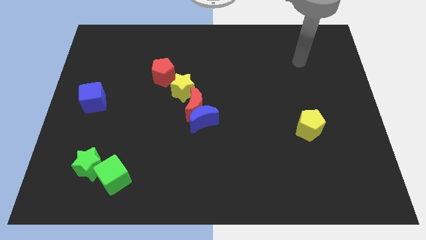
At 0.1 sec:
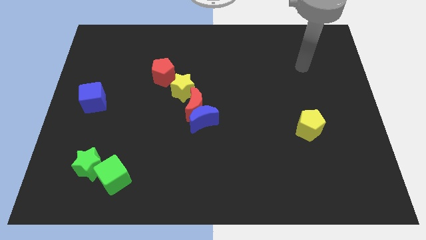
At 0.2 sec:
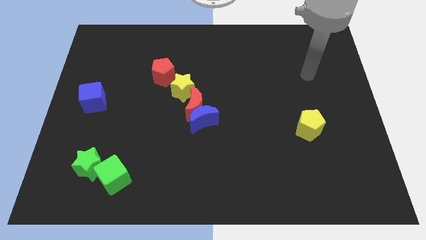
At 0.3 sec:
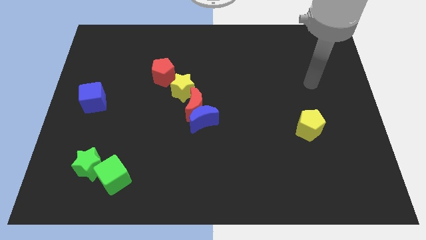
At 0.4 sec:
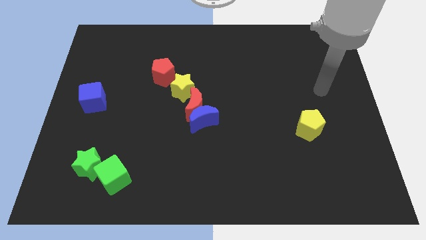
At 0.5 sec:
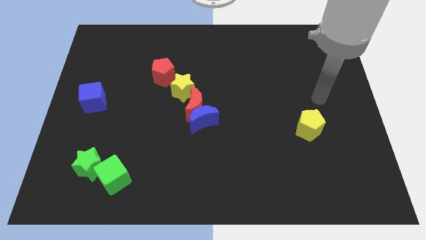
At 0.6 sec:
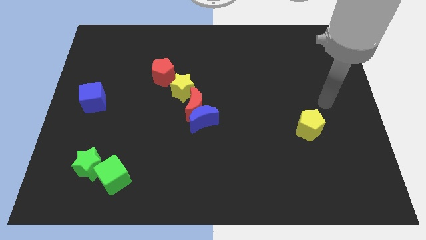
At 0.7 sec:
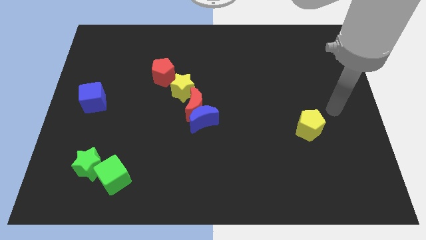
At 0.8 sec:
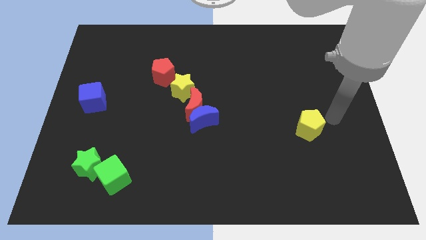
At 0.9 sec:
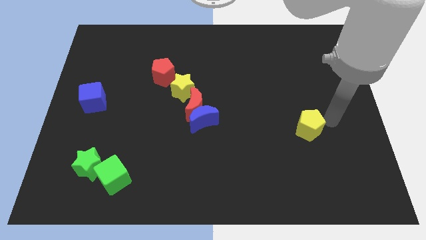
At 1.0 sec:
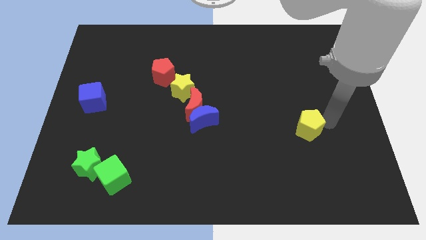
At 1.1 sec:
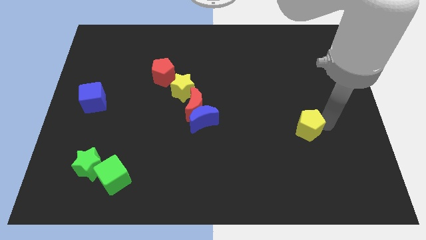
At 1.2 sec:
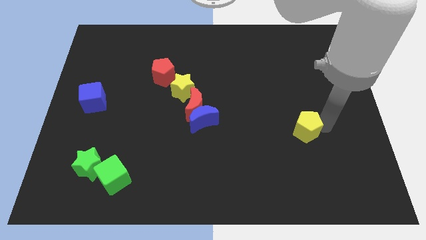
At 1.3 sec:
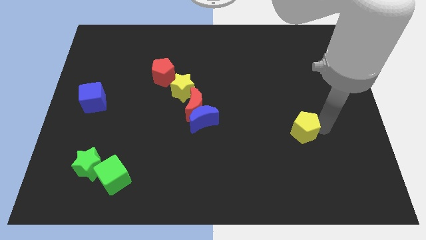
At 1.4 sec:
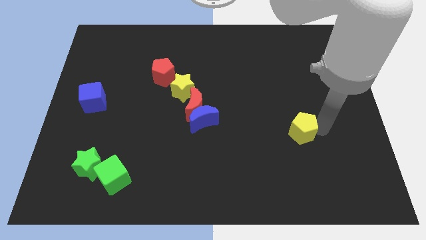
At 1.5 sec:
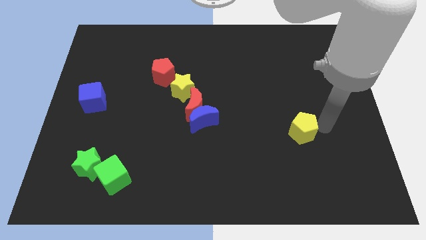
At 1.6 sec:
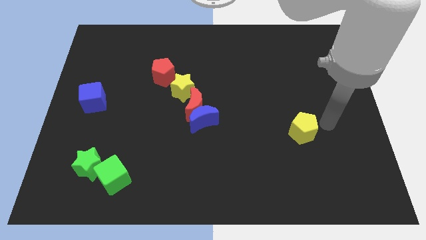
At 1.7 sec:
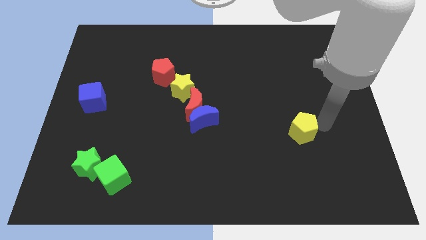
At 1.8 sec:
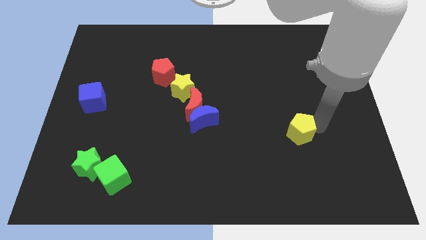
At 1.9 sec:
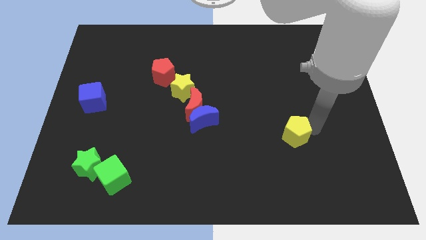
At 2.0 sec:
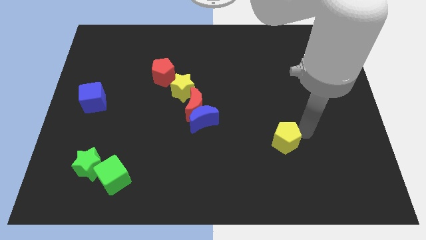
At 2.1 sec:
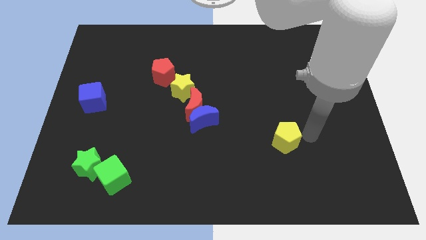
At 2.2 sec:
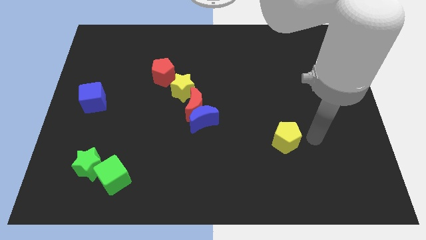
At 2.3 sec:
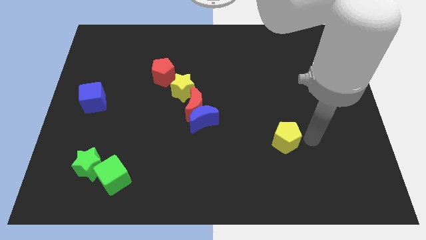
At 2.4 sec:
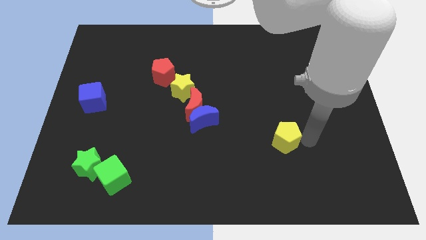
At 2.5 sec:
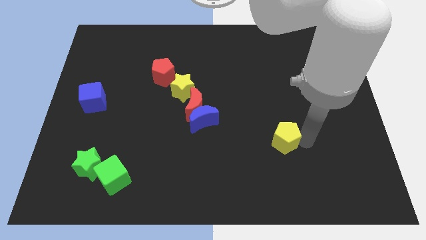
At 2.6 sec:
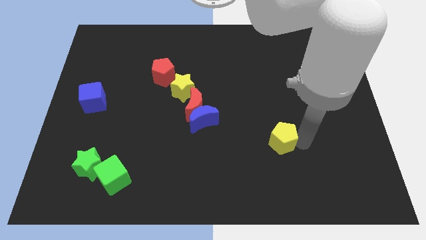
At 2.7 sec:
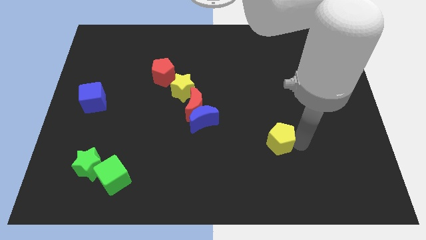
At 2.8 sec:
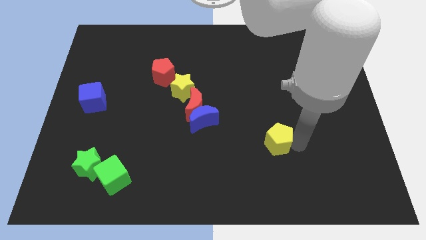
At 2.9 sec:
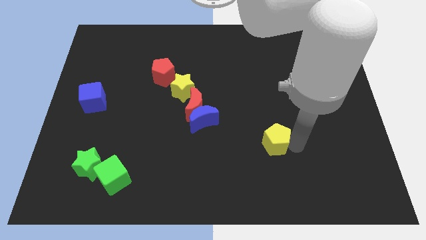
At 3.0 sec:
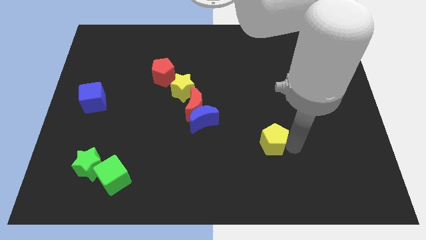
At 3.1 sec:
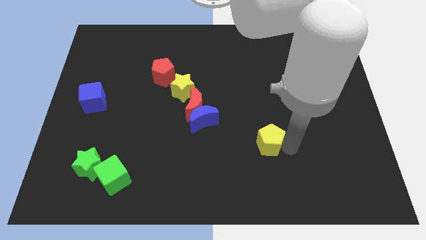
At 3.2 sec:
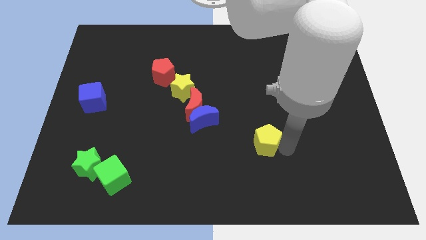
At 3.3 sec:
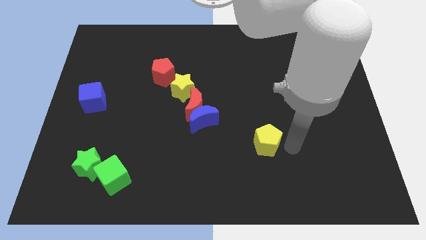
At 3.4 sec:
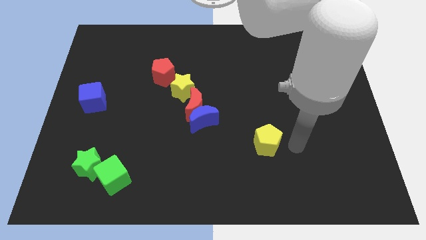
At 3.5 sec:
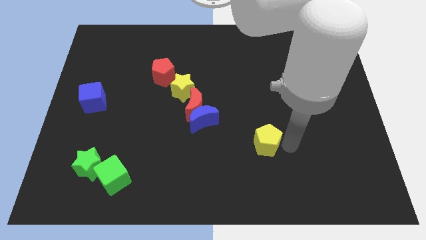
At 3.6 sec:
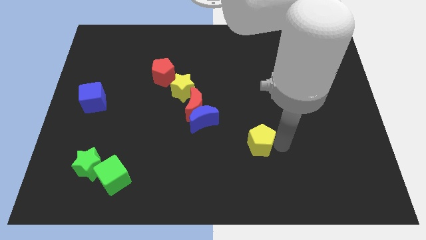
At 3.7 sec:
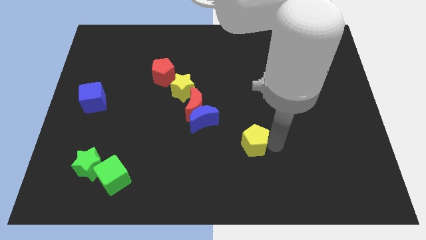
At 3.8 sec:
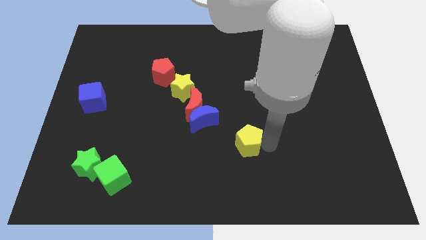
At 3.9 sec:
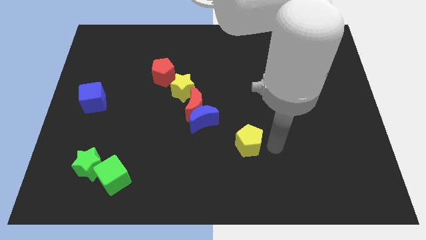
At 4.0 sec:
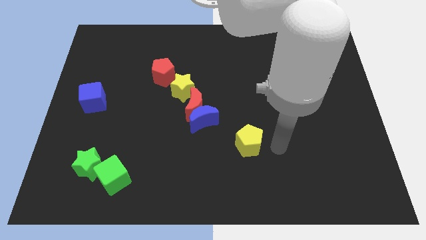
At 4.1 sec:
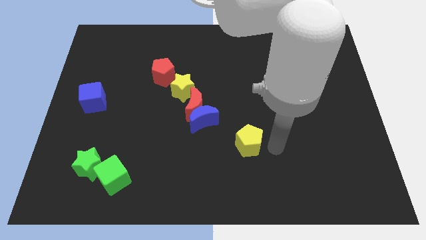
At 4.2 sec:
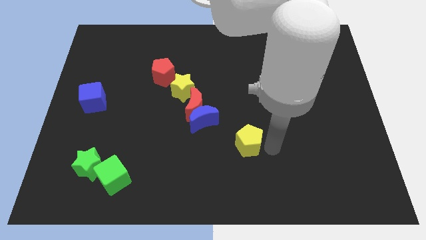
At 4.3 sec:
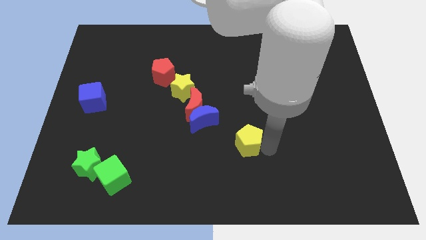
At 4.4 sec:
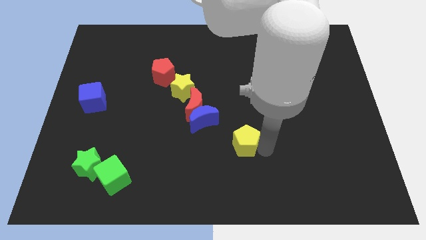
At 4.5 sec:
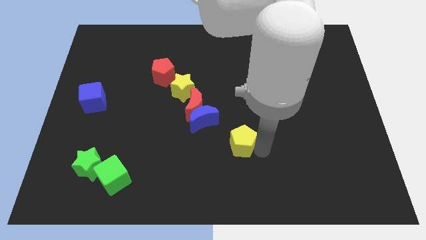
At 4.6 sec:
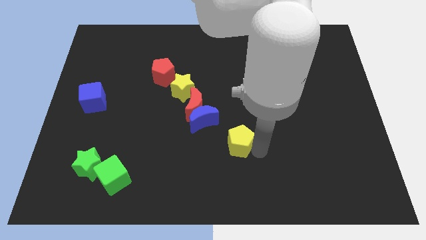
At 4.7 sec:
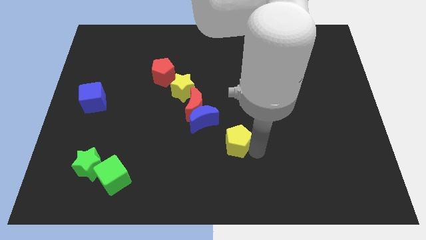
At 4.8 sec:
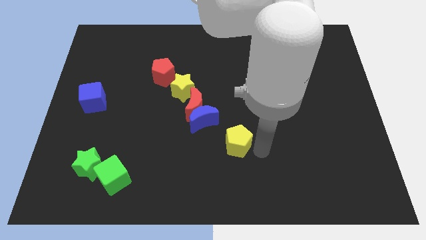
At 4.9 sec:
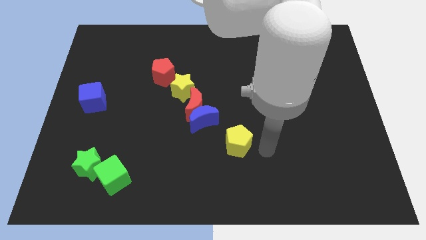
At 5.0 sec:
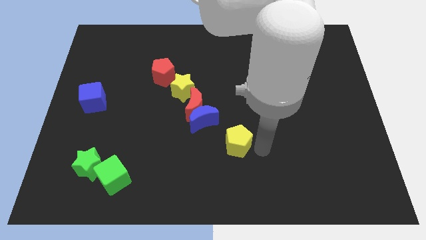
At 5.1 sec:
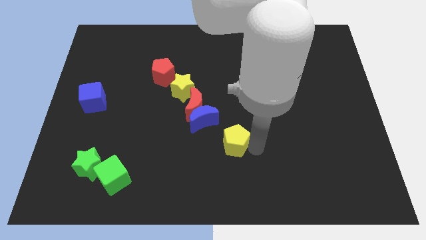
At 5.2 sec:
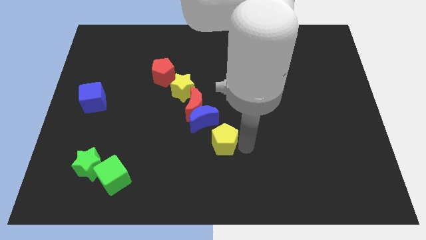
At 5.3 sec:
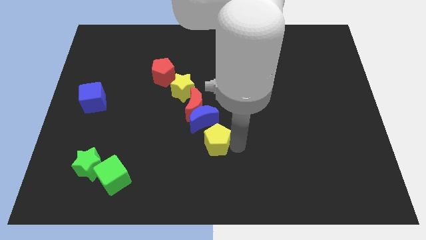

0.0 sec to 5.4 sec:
slide the yellow pentagon left

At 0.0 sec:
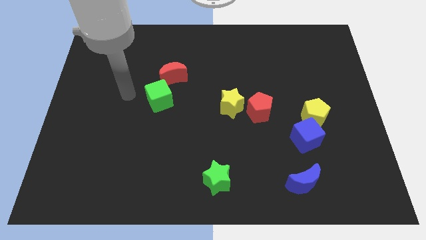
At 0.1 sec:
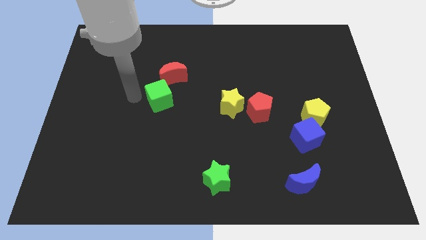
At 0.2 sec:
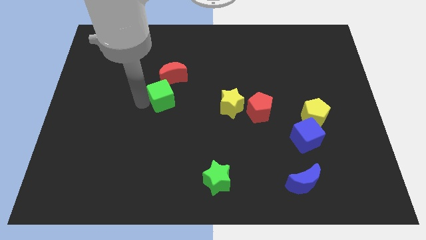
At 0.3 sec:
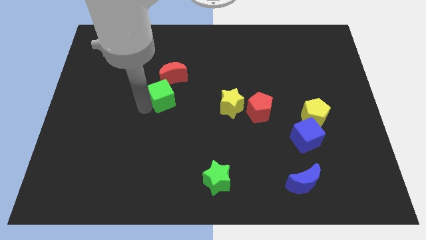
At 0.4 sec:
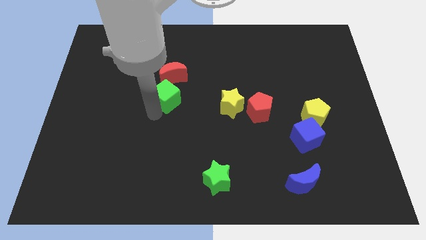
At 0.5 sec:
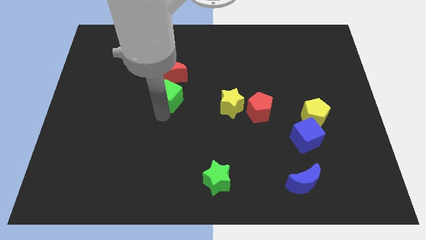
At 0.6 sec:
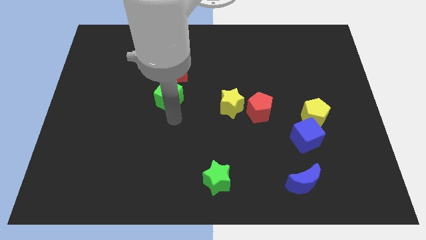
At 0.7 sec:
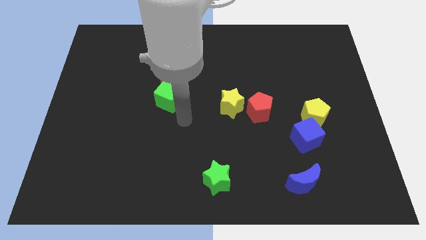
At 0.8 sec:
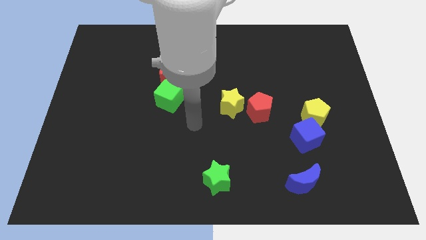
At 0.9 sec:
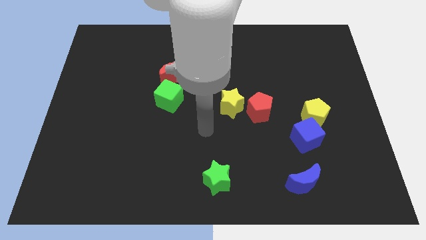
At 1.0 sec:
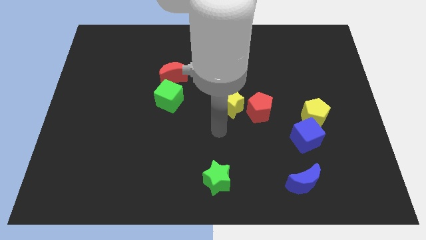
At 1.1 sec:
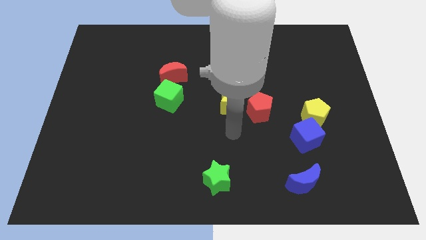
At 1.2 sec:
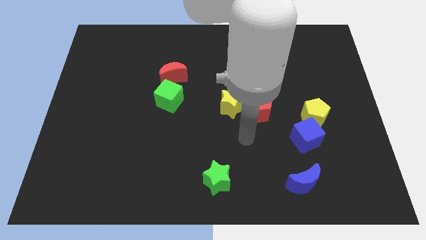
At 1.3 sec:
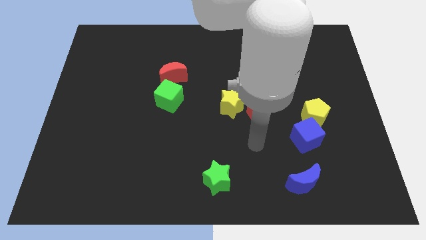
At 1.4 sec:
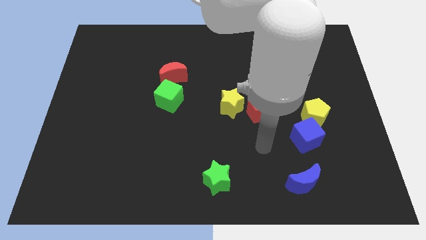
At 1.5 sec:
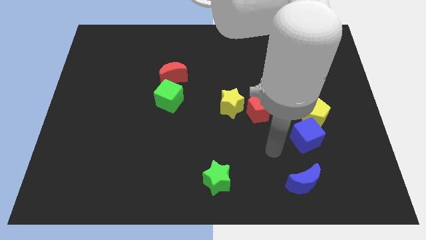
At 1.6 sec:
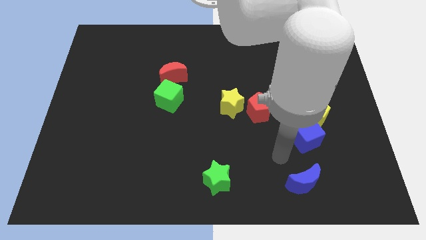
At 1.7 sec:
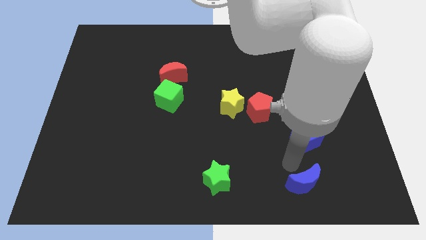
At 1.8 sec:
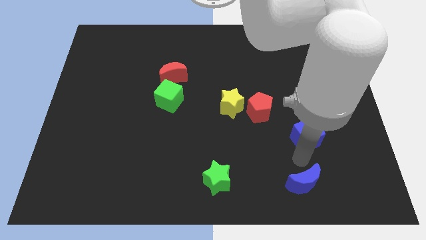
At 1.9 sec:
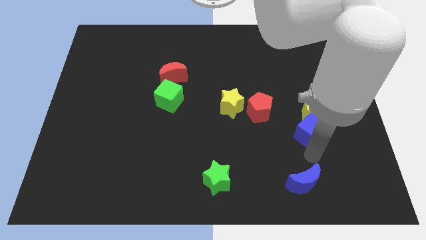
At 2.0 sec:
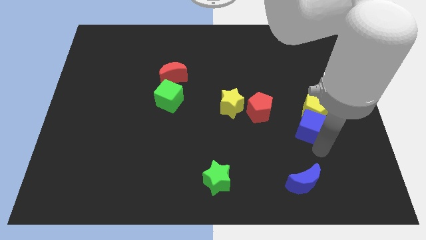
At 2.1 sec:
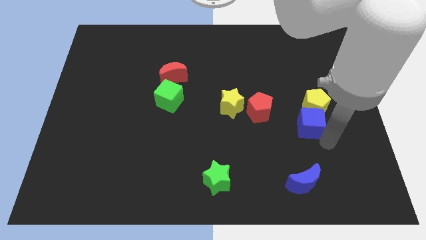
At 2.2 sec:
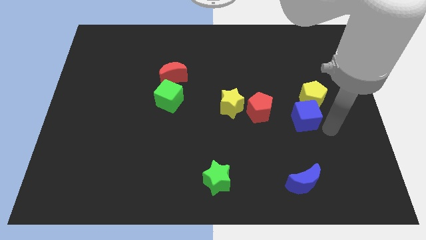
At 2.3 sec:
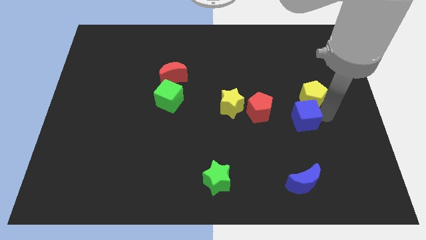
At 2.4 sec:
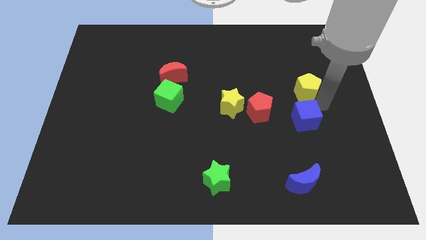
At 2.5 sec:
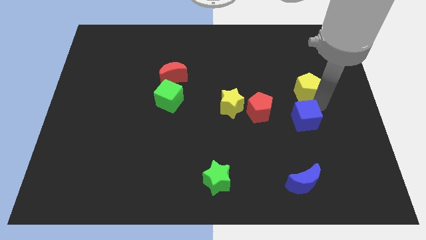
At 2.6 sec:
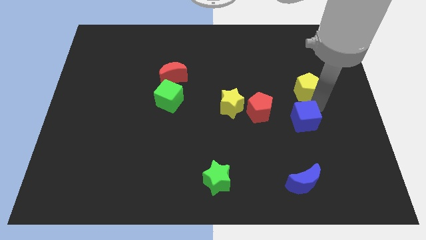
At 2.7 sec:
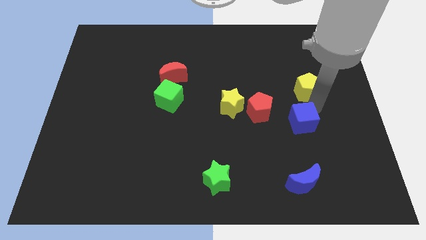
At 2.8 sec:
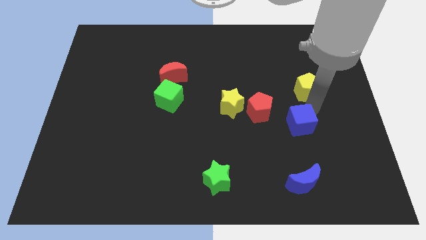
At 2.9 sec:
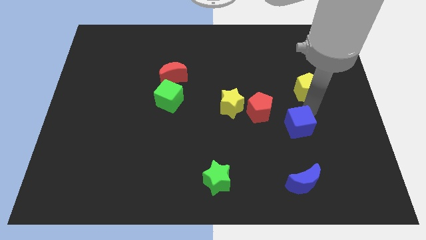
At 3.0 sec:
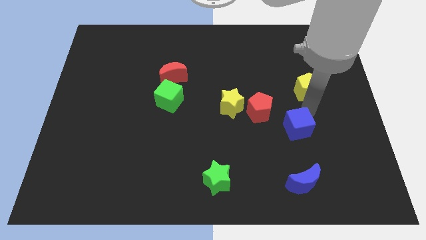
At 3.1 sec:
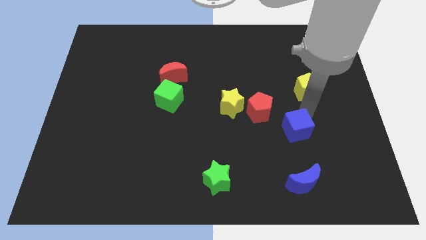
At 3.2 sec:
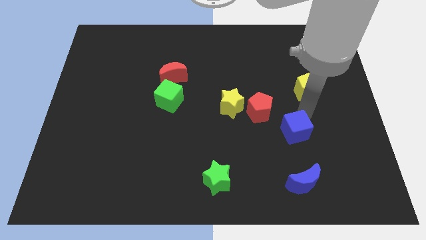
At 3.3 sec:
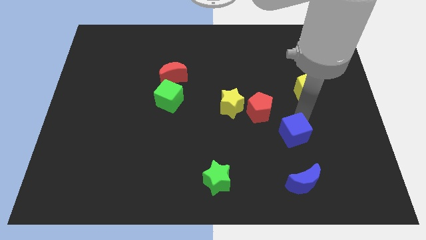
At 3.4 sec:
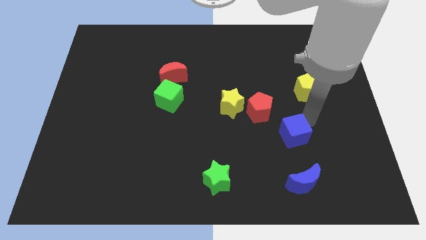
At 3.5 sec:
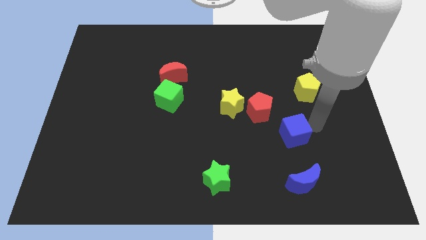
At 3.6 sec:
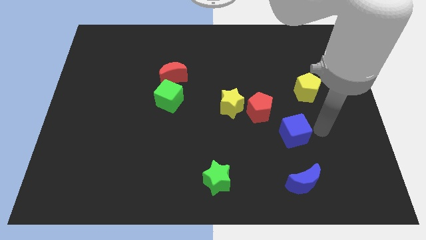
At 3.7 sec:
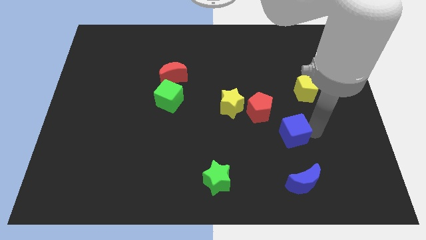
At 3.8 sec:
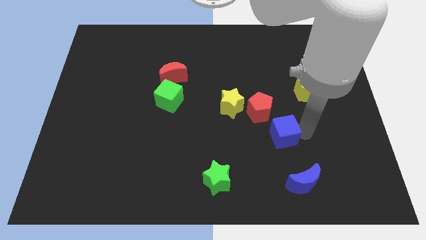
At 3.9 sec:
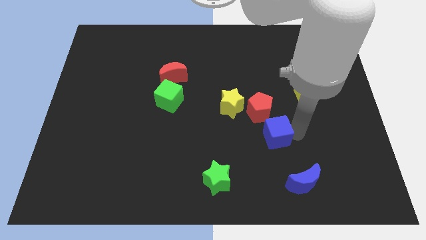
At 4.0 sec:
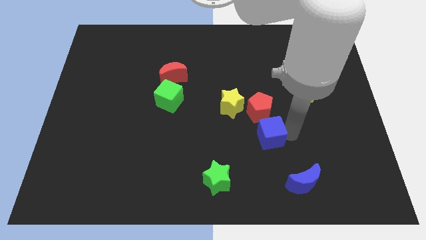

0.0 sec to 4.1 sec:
move the blue cube left somewhat
